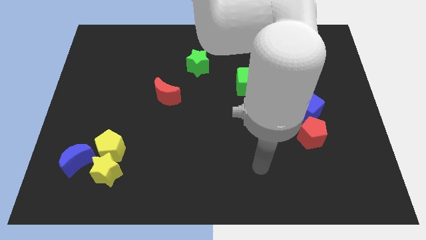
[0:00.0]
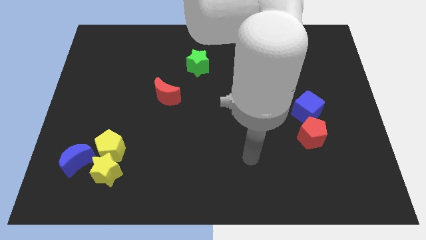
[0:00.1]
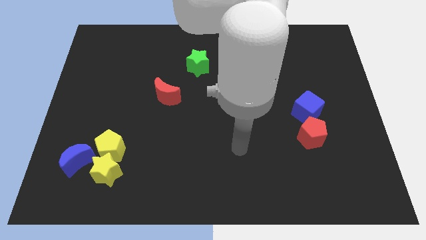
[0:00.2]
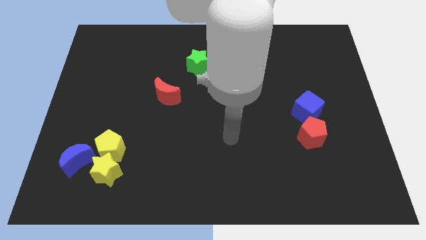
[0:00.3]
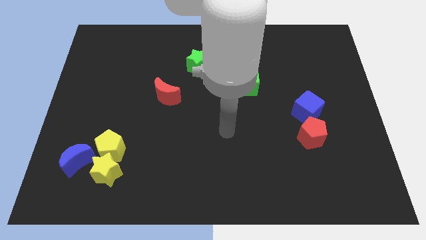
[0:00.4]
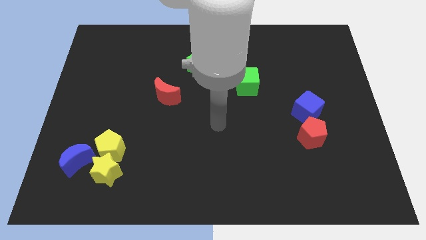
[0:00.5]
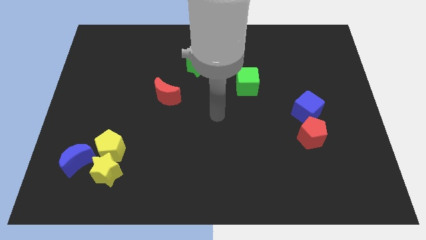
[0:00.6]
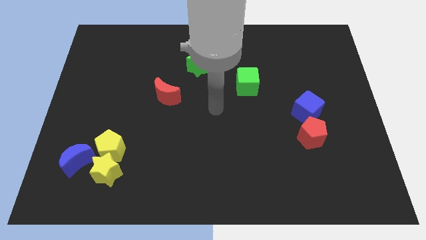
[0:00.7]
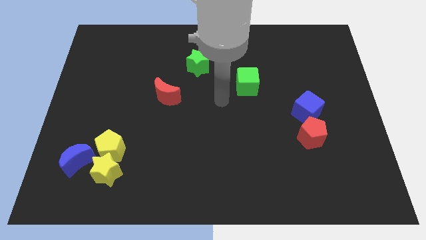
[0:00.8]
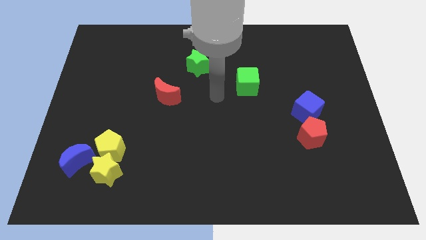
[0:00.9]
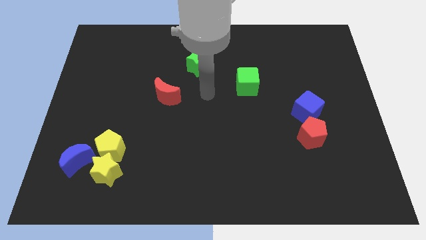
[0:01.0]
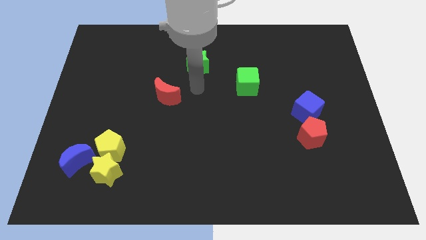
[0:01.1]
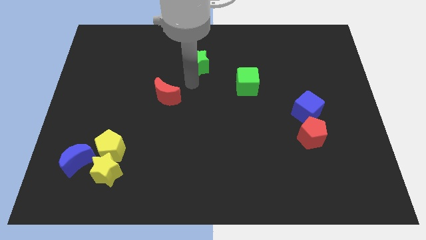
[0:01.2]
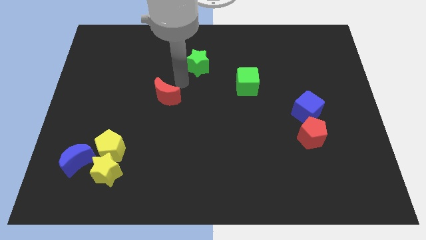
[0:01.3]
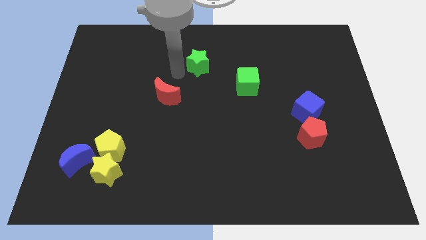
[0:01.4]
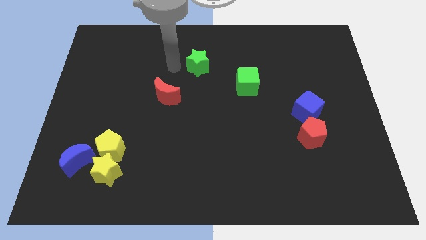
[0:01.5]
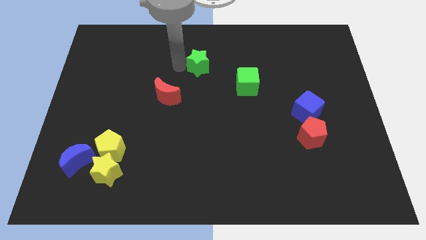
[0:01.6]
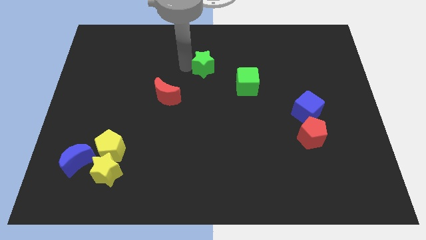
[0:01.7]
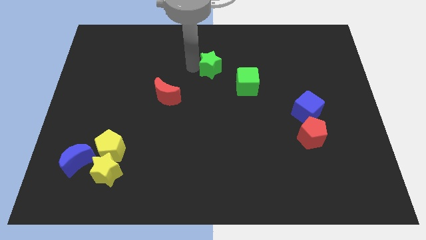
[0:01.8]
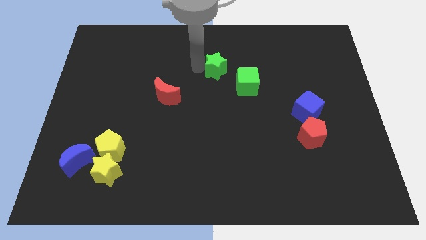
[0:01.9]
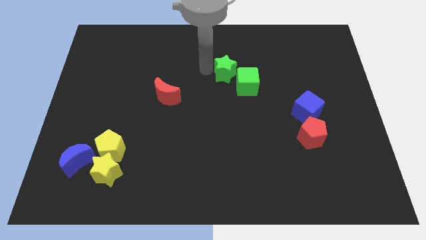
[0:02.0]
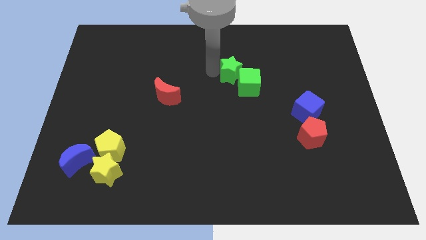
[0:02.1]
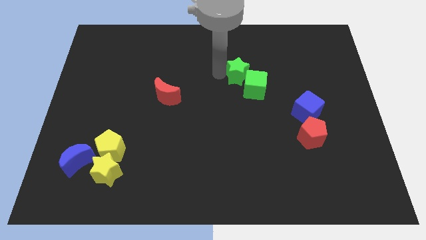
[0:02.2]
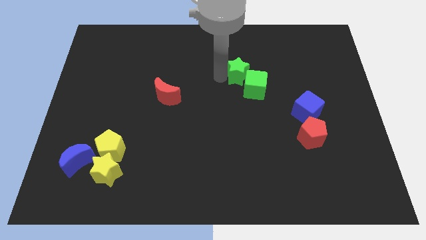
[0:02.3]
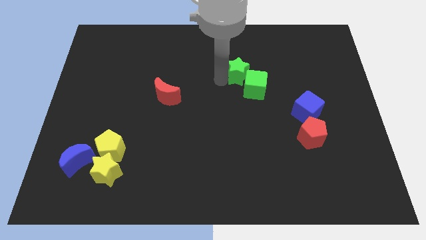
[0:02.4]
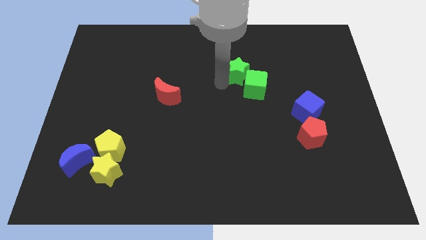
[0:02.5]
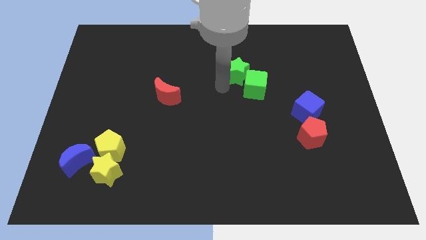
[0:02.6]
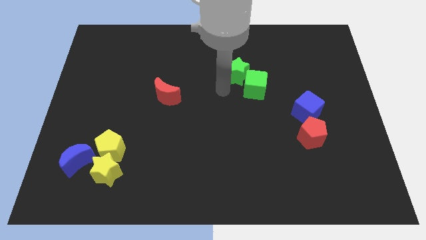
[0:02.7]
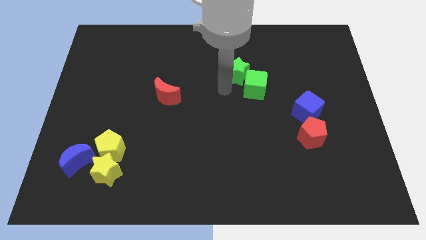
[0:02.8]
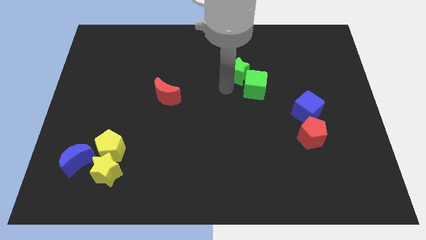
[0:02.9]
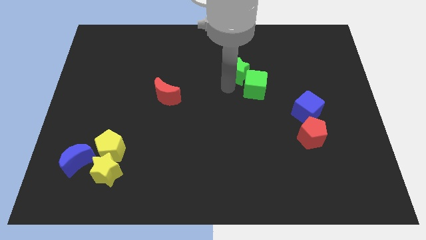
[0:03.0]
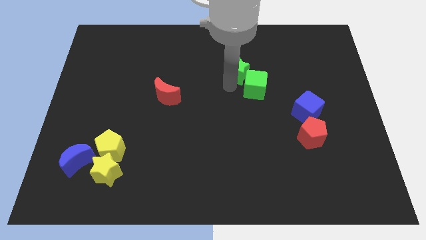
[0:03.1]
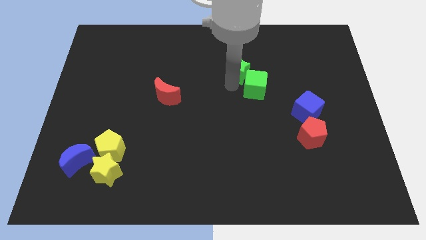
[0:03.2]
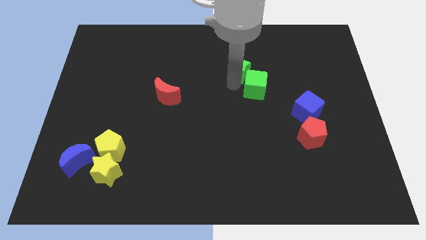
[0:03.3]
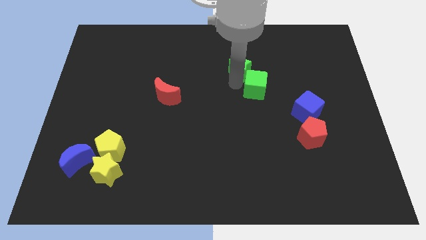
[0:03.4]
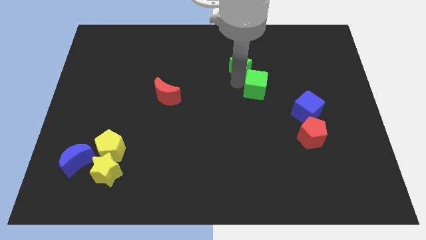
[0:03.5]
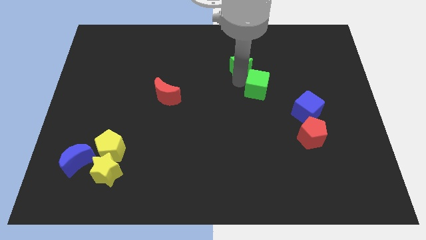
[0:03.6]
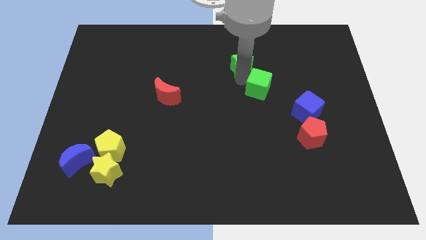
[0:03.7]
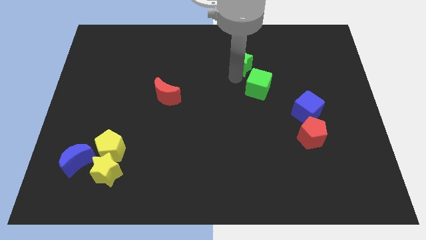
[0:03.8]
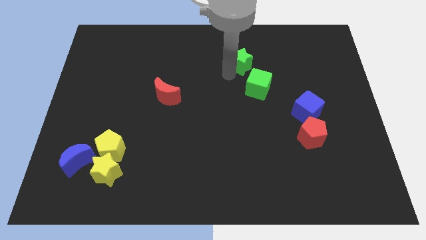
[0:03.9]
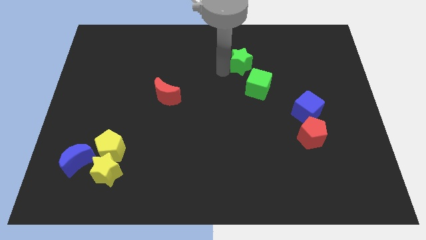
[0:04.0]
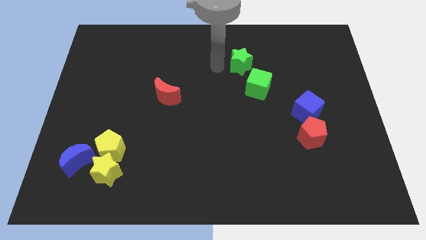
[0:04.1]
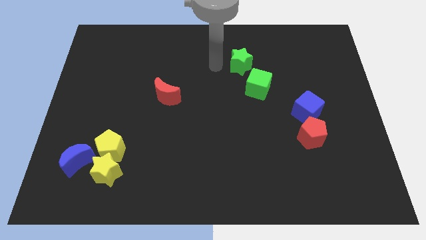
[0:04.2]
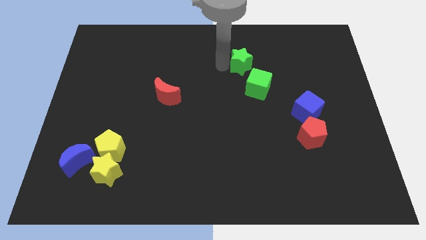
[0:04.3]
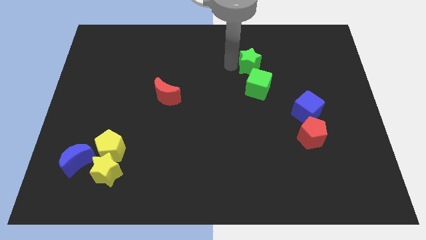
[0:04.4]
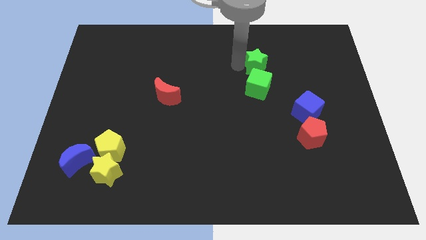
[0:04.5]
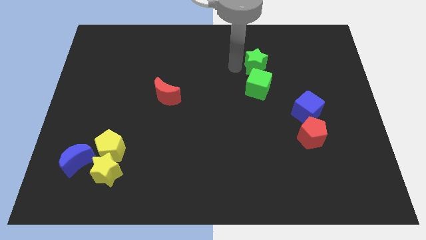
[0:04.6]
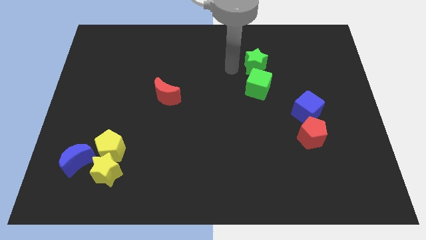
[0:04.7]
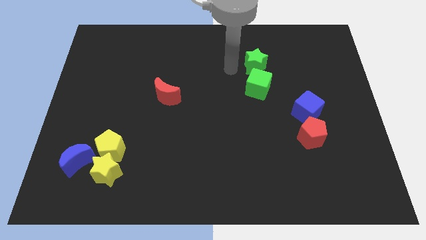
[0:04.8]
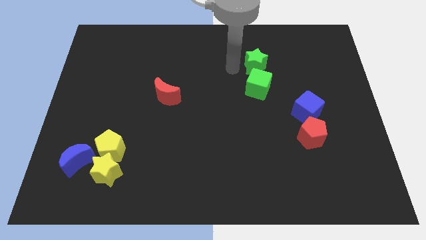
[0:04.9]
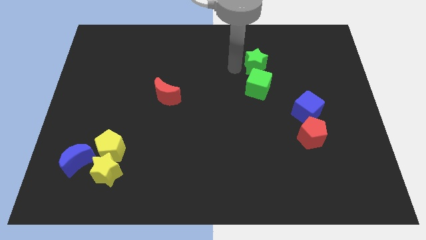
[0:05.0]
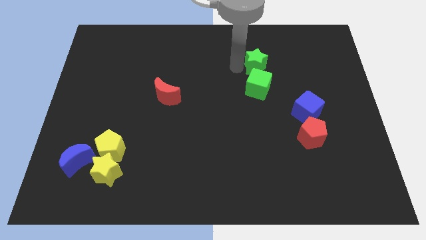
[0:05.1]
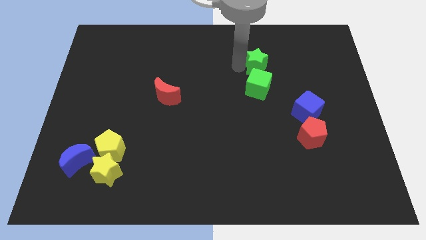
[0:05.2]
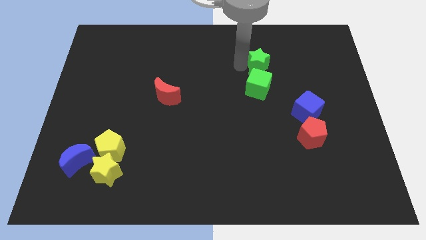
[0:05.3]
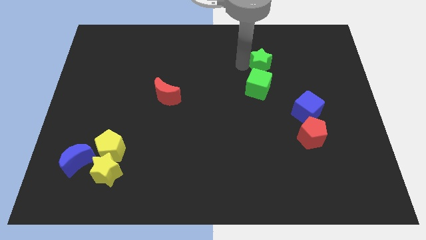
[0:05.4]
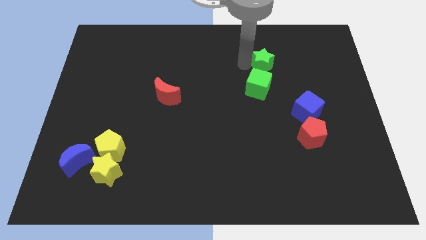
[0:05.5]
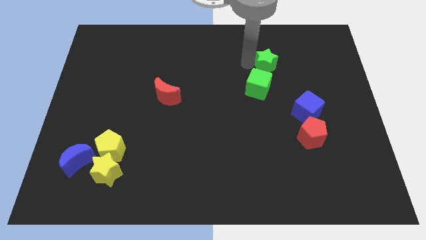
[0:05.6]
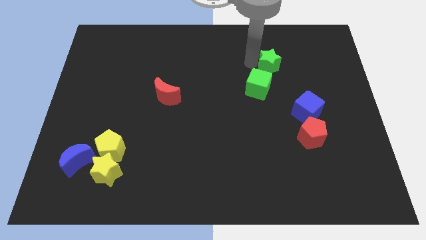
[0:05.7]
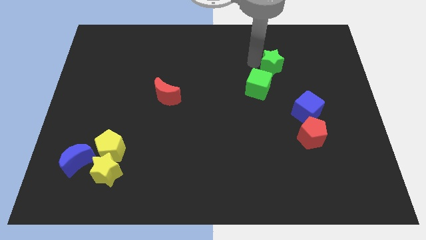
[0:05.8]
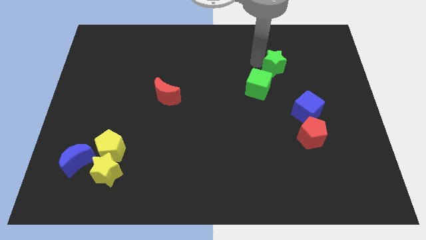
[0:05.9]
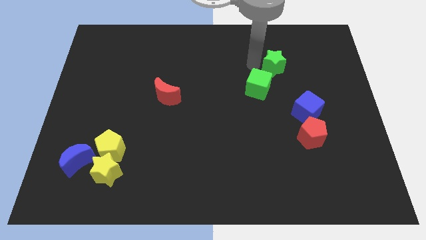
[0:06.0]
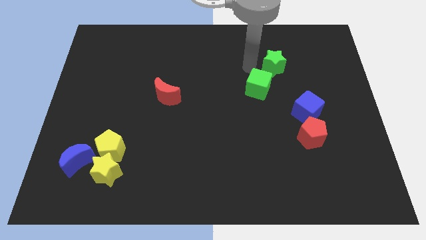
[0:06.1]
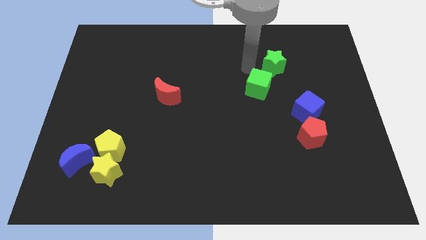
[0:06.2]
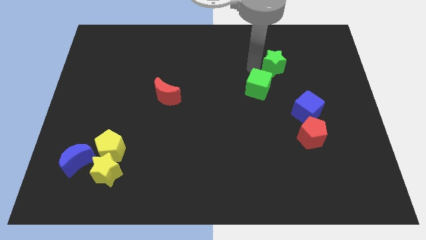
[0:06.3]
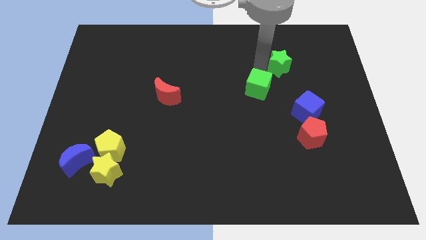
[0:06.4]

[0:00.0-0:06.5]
slide the green star to the right

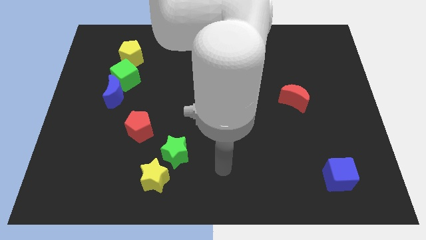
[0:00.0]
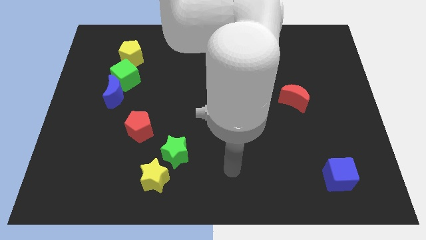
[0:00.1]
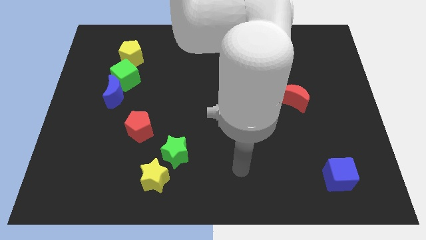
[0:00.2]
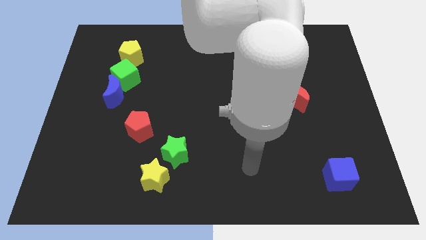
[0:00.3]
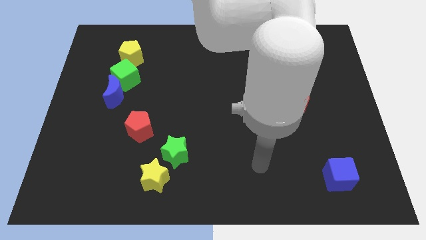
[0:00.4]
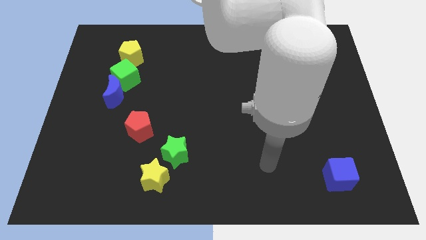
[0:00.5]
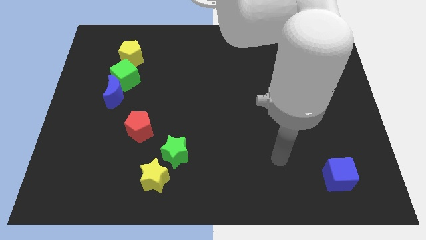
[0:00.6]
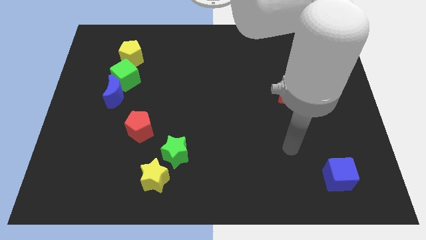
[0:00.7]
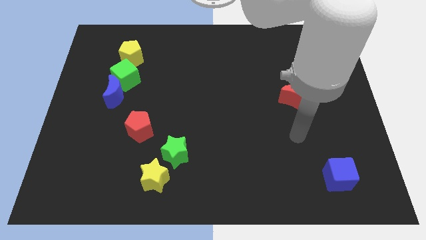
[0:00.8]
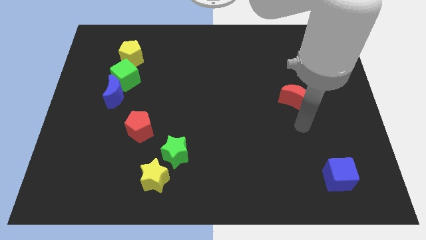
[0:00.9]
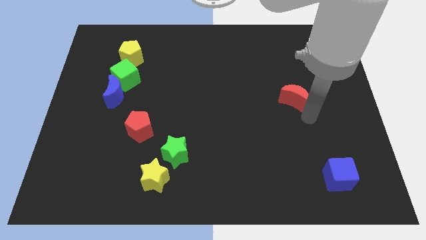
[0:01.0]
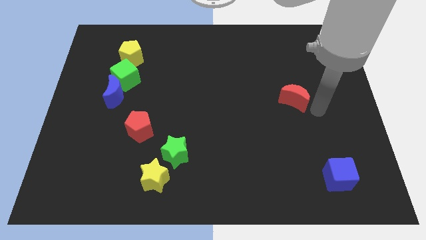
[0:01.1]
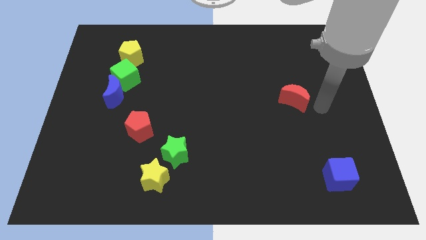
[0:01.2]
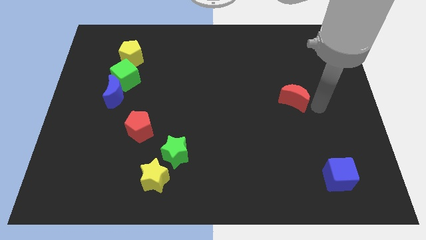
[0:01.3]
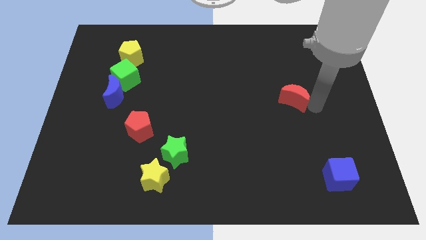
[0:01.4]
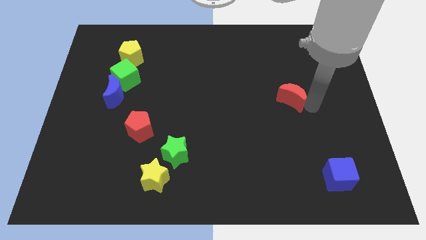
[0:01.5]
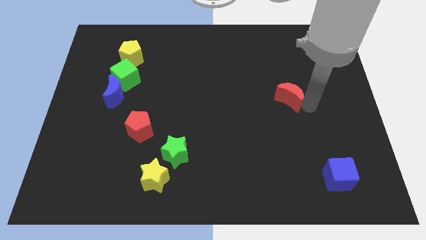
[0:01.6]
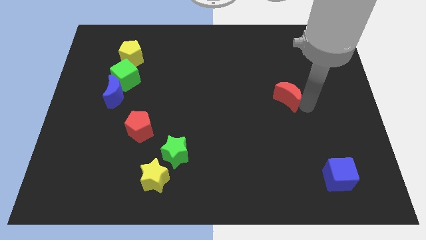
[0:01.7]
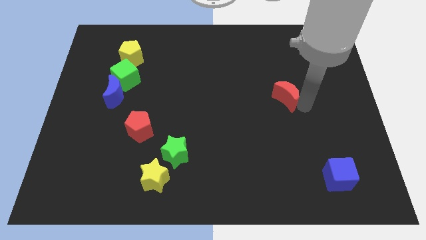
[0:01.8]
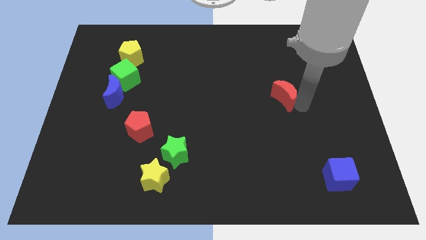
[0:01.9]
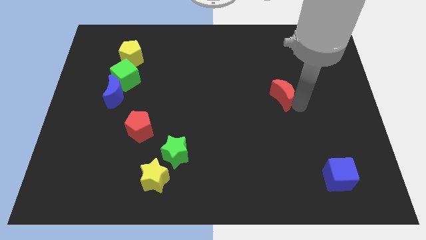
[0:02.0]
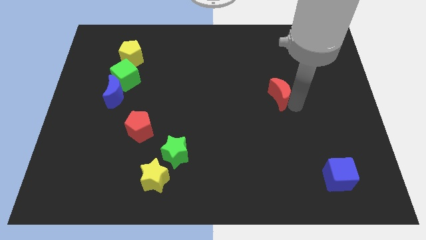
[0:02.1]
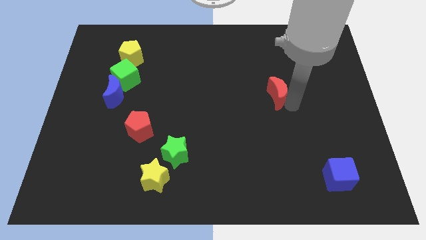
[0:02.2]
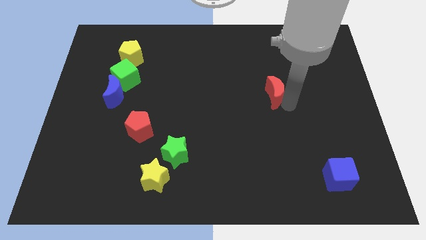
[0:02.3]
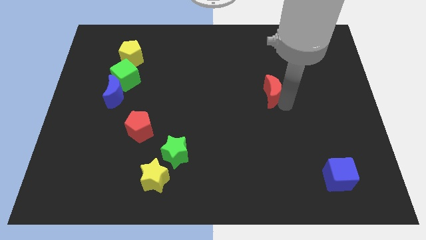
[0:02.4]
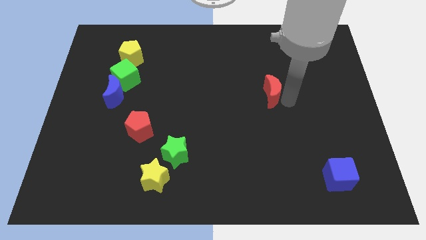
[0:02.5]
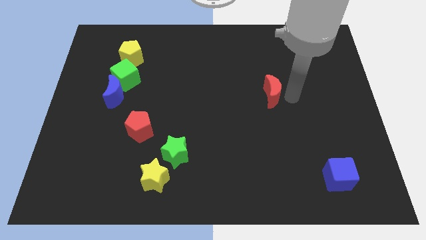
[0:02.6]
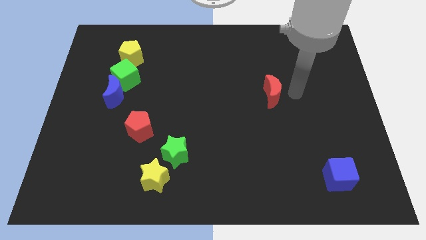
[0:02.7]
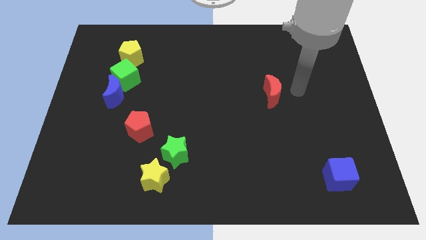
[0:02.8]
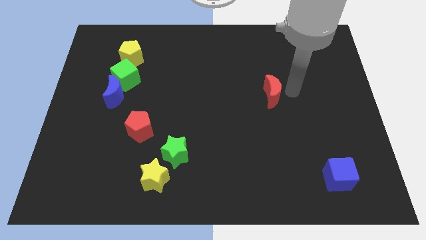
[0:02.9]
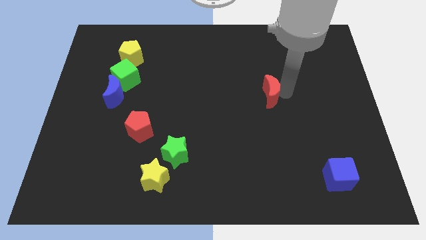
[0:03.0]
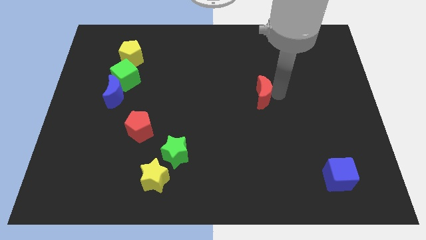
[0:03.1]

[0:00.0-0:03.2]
slide the red moon left a bit
